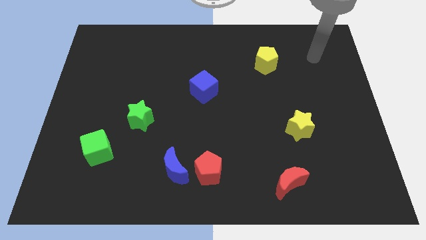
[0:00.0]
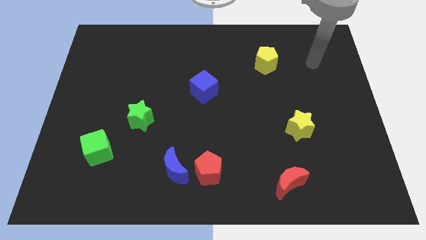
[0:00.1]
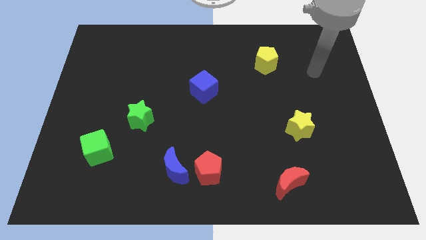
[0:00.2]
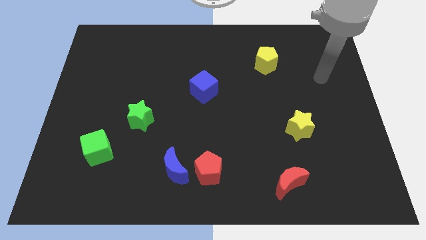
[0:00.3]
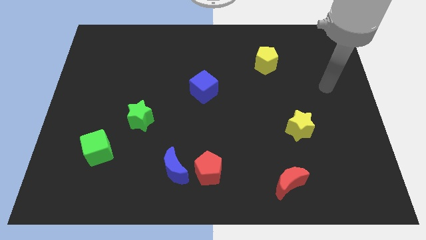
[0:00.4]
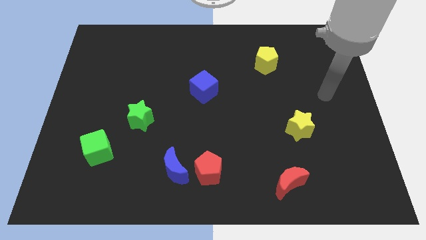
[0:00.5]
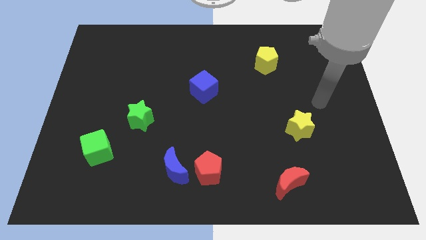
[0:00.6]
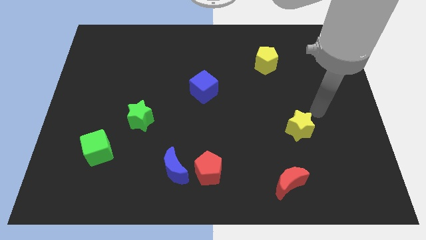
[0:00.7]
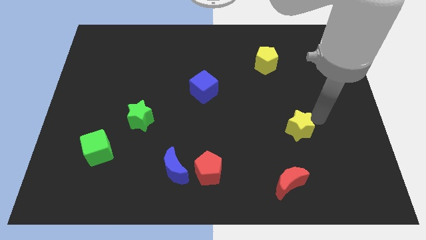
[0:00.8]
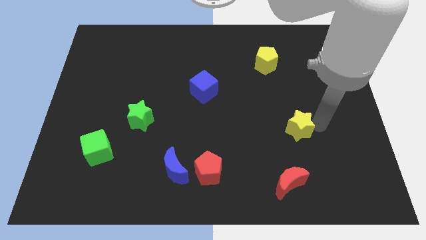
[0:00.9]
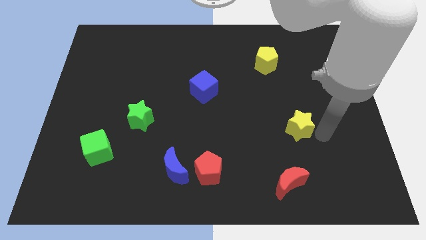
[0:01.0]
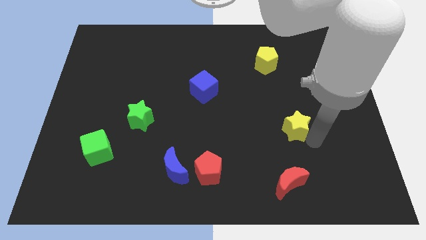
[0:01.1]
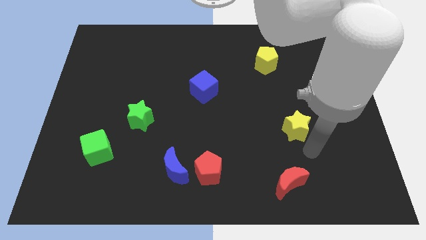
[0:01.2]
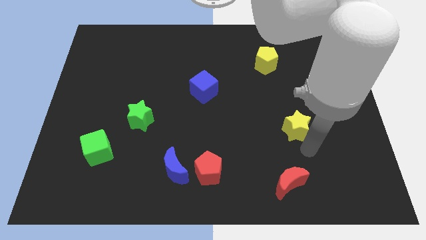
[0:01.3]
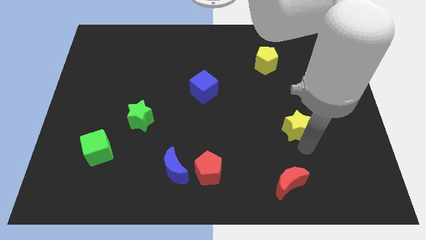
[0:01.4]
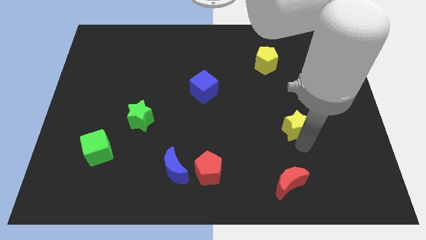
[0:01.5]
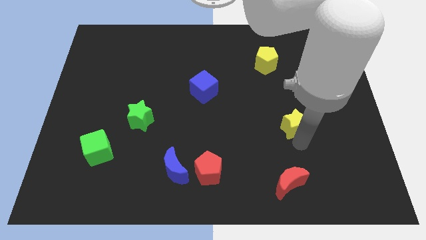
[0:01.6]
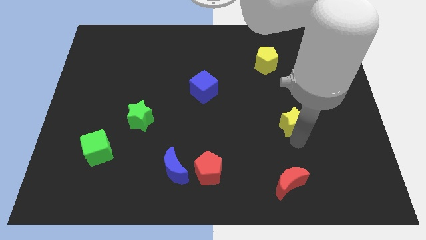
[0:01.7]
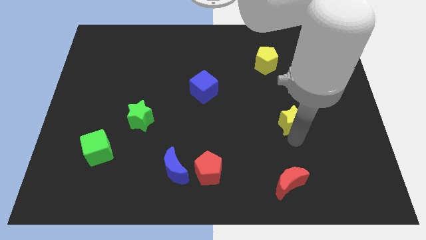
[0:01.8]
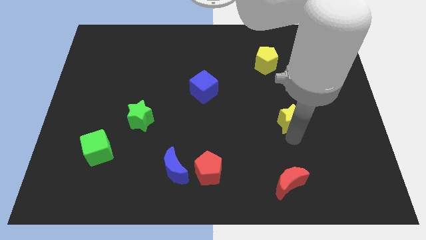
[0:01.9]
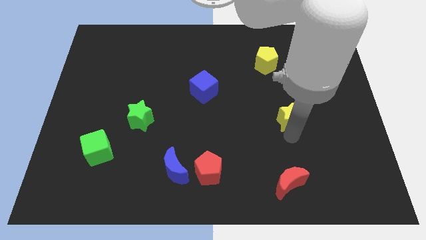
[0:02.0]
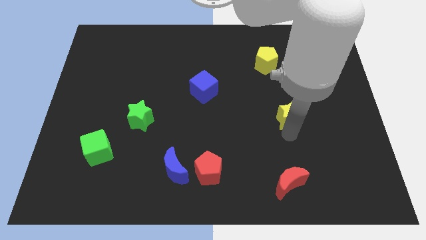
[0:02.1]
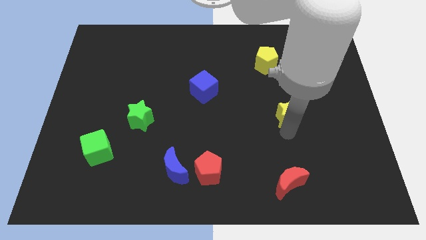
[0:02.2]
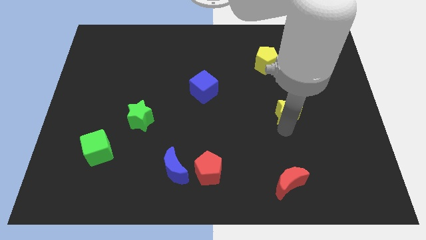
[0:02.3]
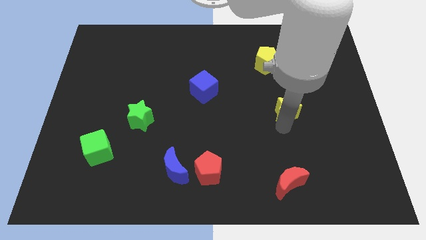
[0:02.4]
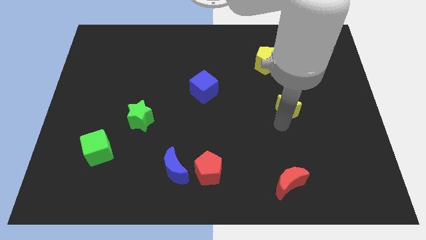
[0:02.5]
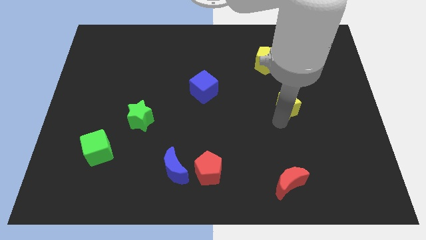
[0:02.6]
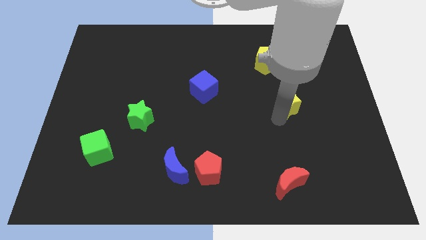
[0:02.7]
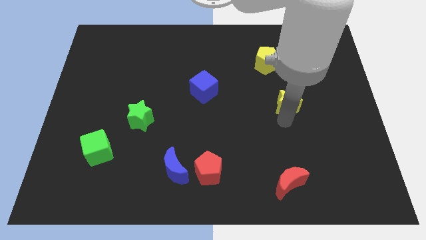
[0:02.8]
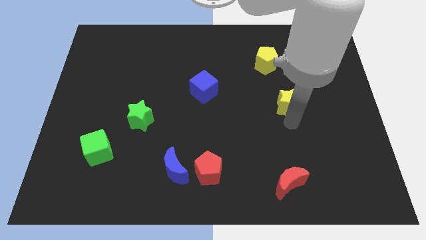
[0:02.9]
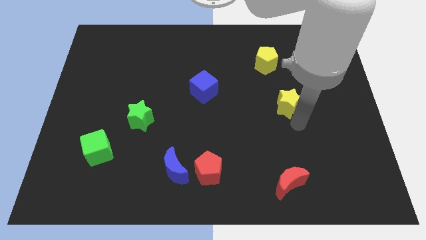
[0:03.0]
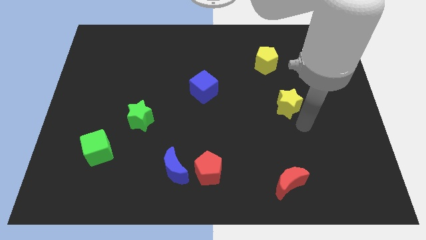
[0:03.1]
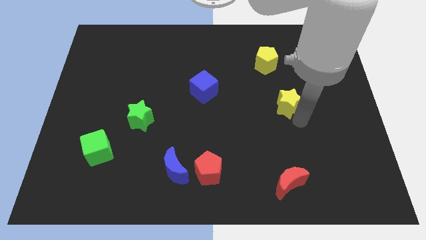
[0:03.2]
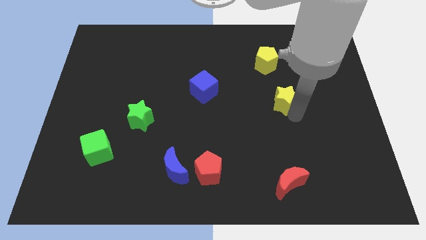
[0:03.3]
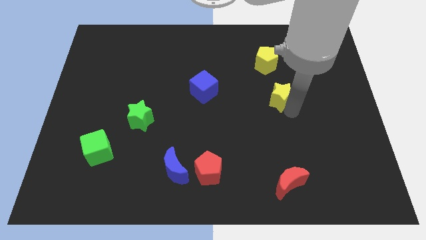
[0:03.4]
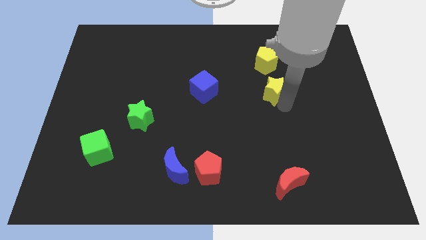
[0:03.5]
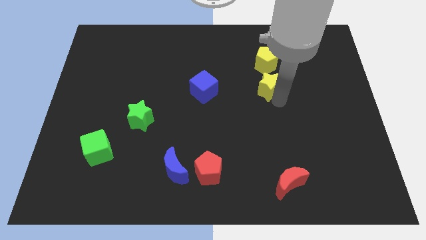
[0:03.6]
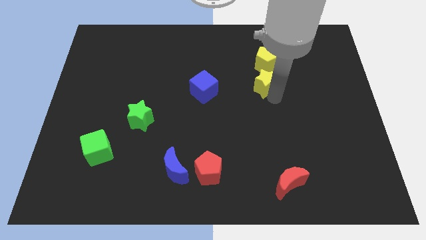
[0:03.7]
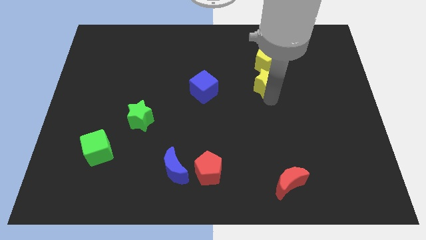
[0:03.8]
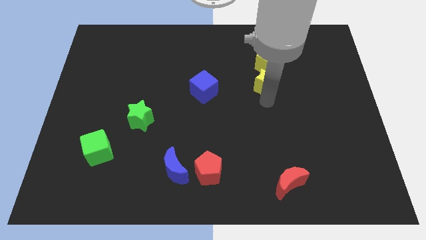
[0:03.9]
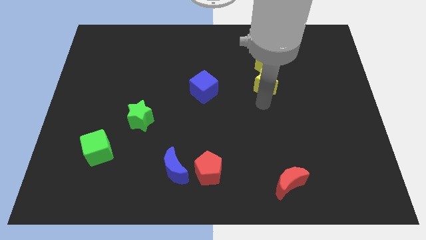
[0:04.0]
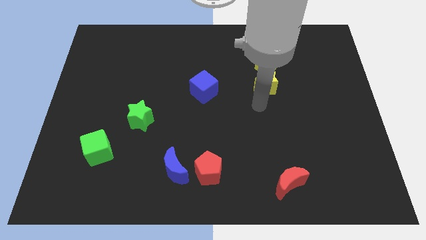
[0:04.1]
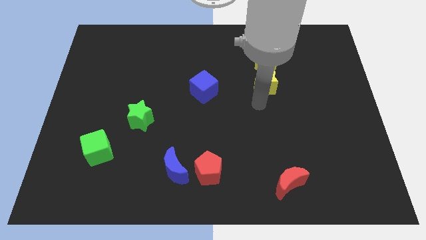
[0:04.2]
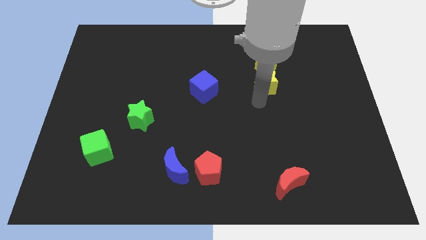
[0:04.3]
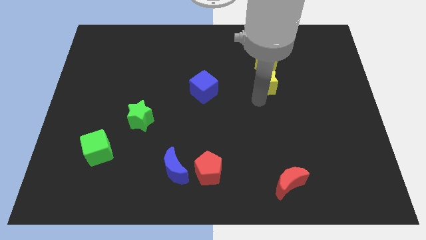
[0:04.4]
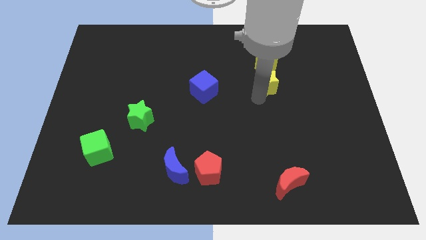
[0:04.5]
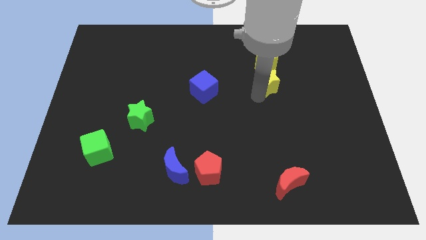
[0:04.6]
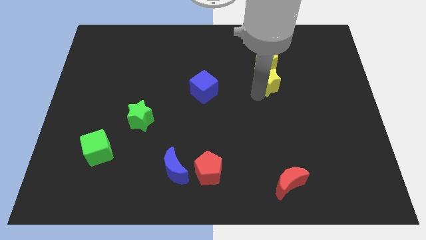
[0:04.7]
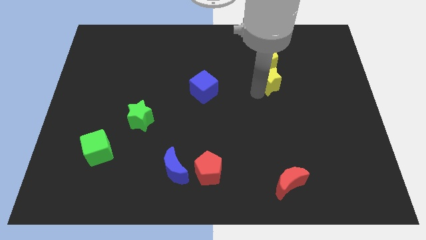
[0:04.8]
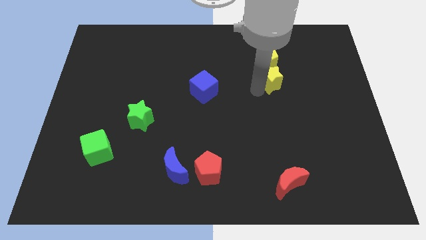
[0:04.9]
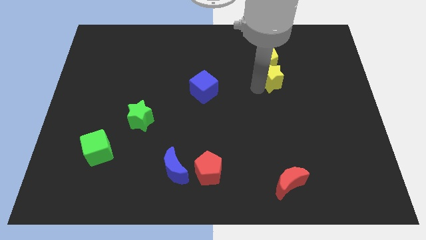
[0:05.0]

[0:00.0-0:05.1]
push the yellow star towards the yellow pentagon

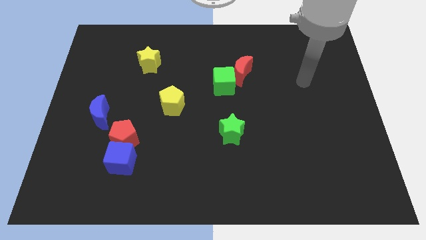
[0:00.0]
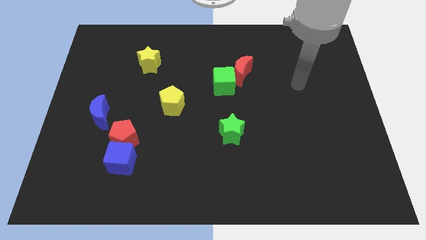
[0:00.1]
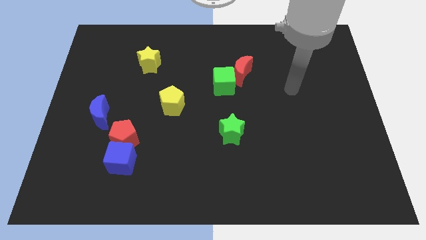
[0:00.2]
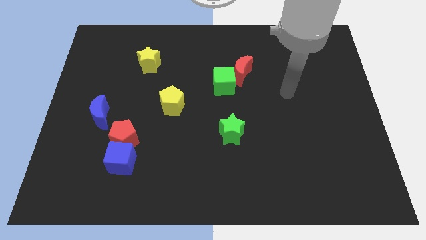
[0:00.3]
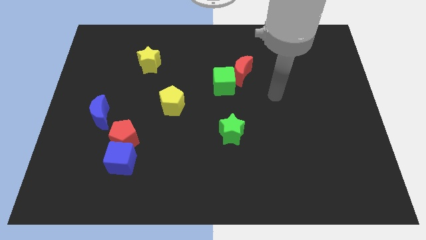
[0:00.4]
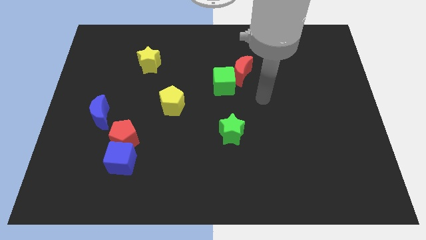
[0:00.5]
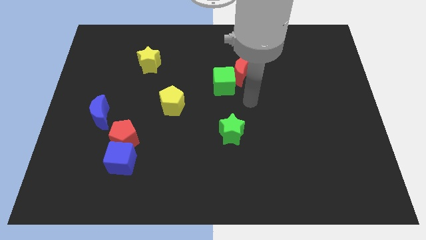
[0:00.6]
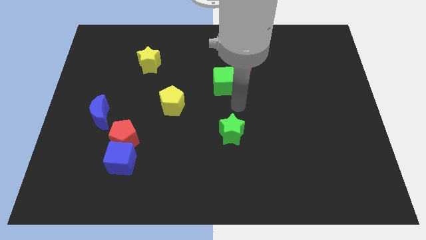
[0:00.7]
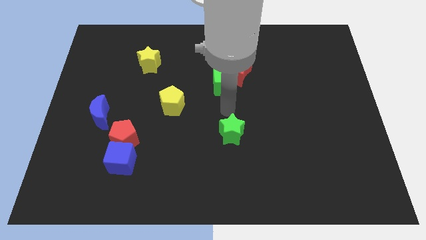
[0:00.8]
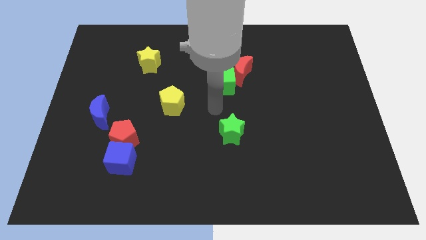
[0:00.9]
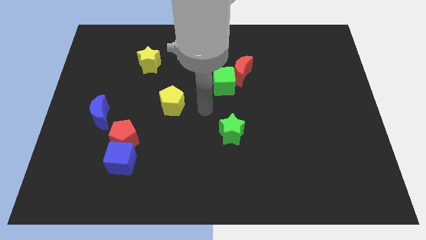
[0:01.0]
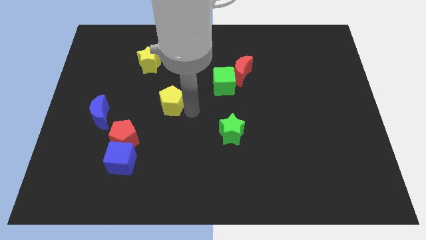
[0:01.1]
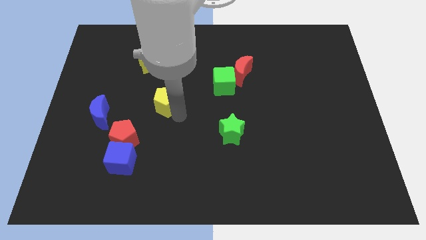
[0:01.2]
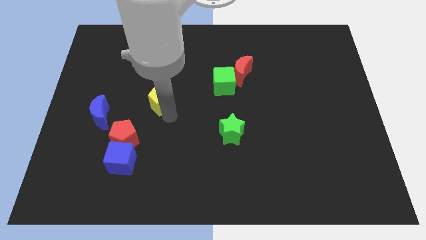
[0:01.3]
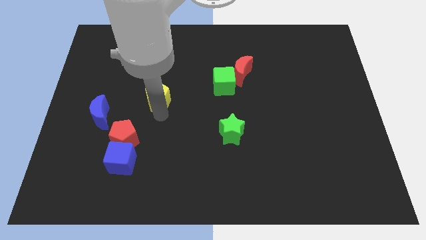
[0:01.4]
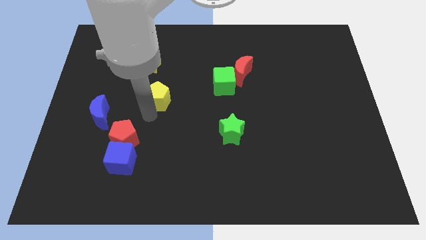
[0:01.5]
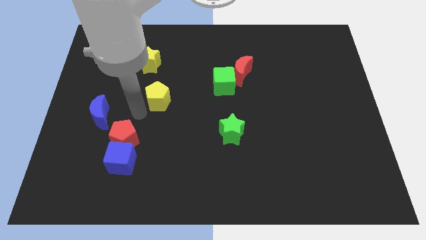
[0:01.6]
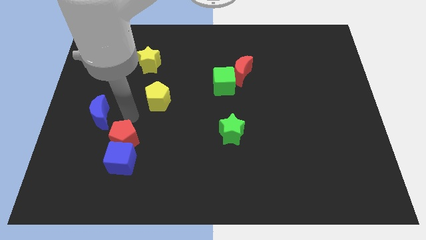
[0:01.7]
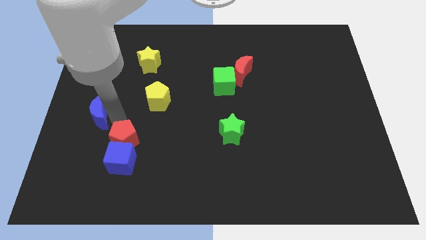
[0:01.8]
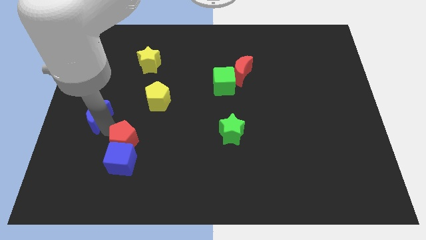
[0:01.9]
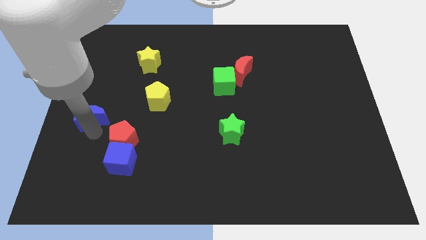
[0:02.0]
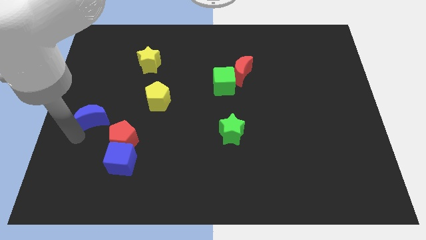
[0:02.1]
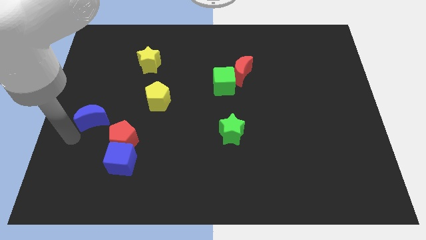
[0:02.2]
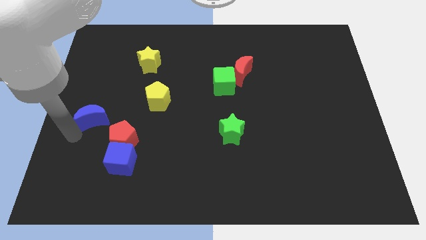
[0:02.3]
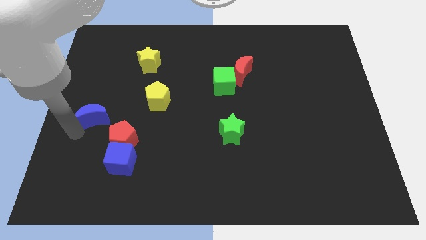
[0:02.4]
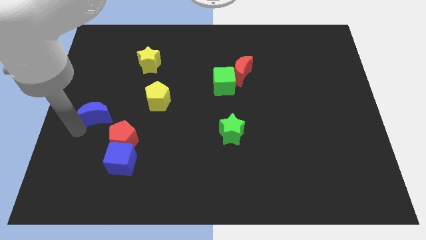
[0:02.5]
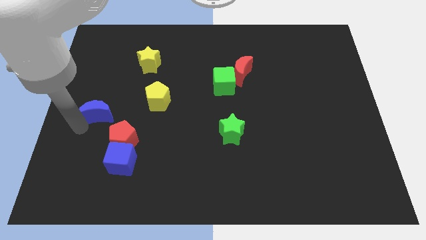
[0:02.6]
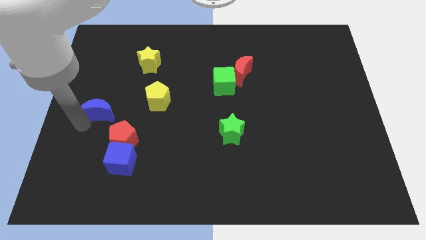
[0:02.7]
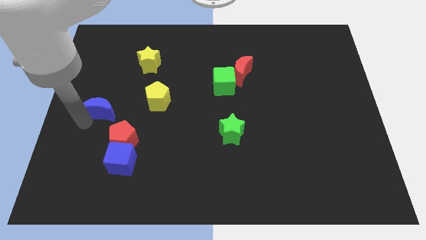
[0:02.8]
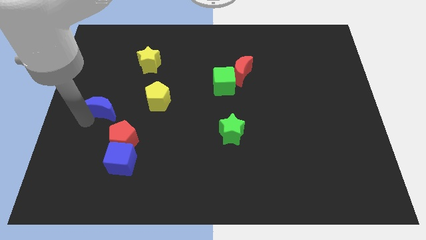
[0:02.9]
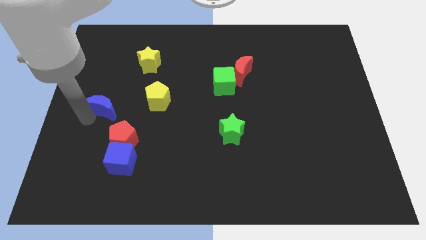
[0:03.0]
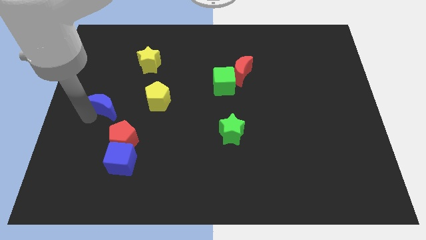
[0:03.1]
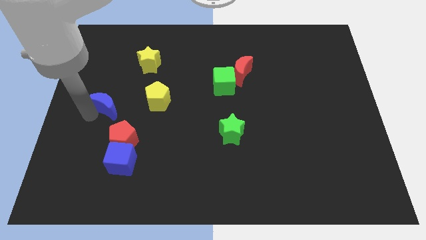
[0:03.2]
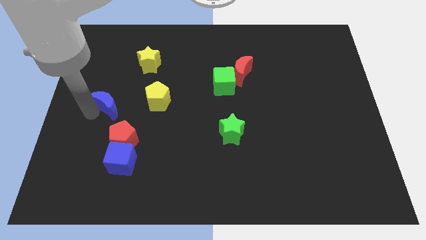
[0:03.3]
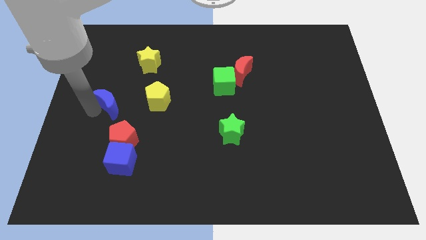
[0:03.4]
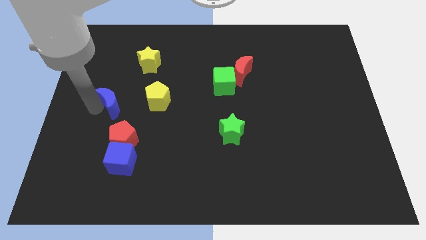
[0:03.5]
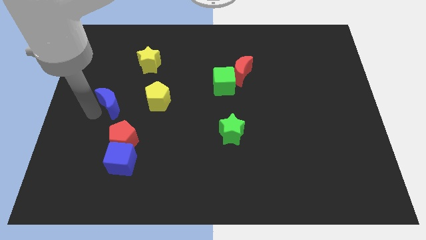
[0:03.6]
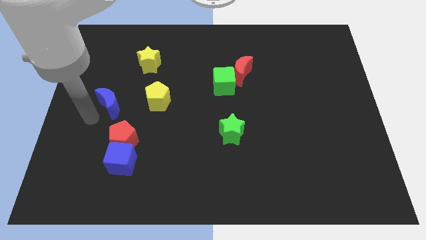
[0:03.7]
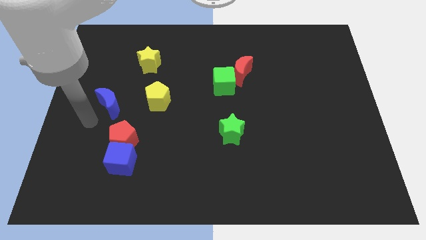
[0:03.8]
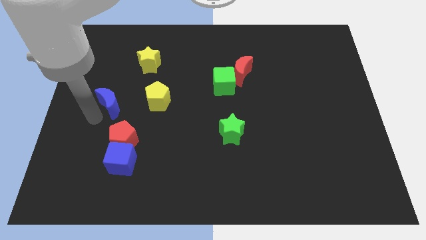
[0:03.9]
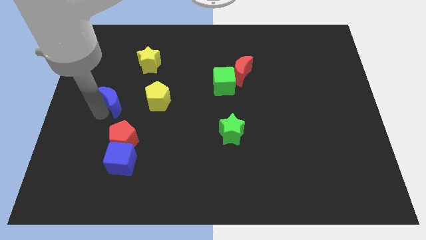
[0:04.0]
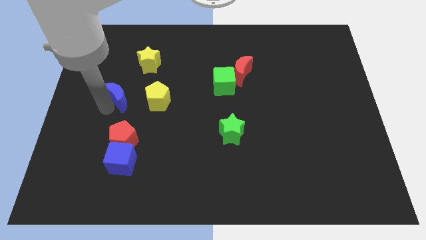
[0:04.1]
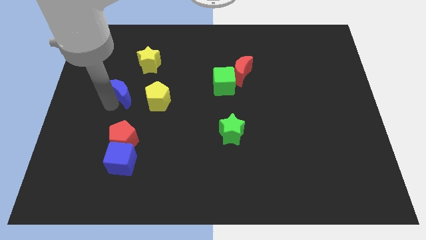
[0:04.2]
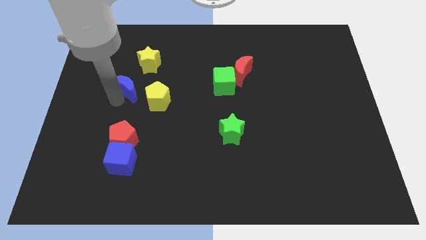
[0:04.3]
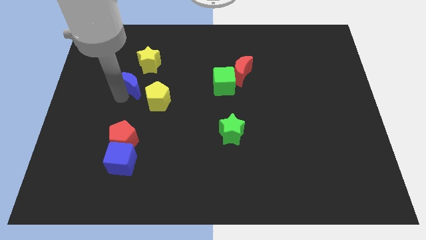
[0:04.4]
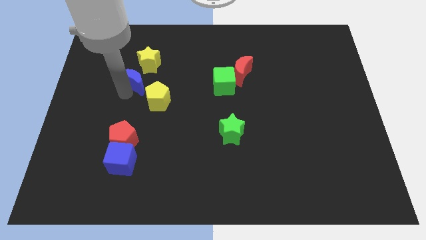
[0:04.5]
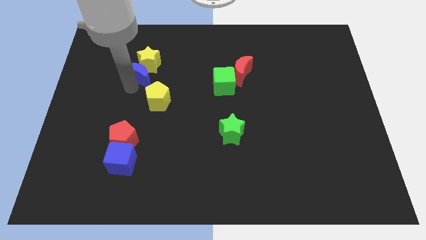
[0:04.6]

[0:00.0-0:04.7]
move the blue moon next to the yellow star
